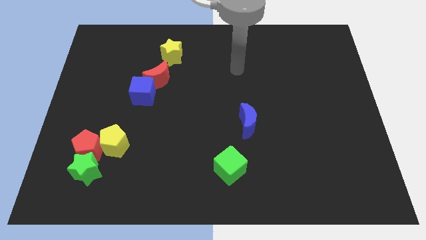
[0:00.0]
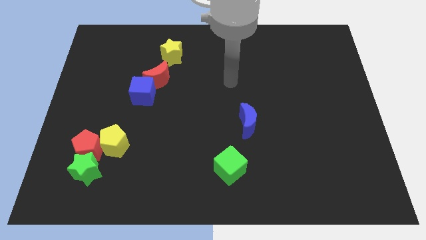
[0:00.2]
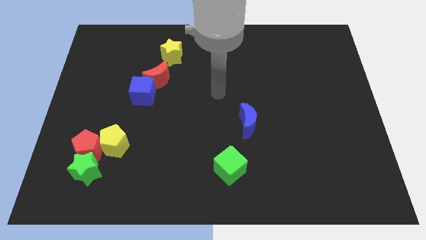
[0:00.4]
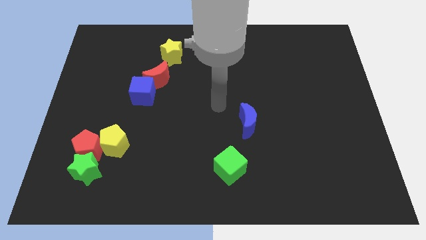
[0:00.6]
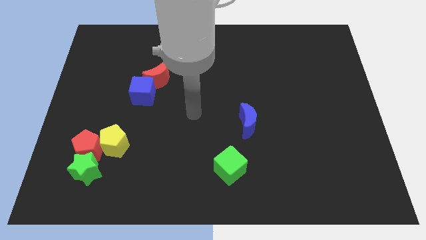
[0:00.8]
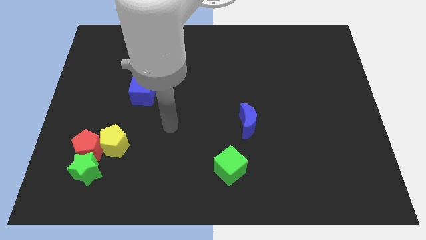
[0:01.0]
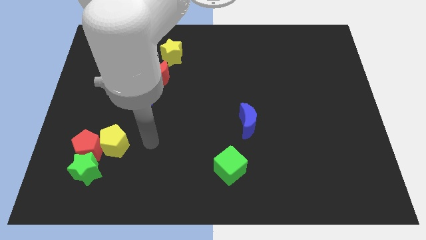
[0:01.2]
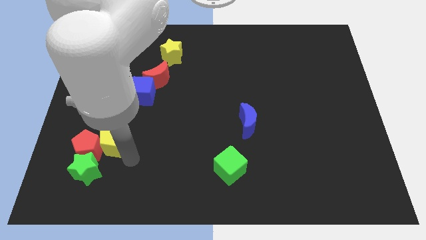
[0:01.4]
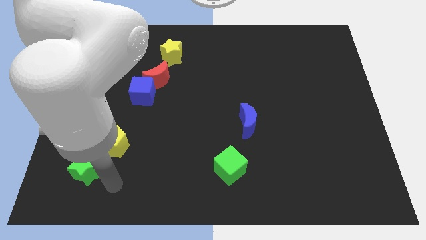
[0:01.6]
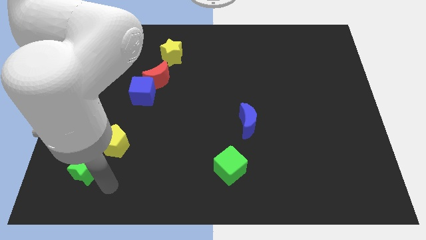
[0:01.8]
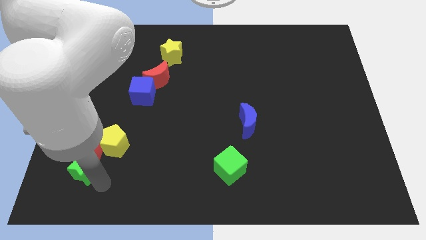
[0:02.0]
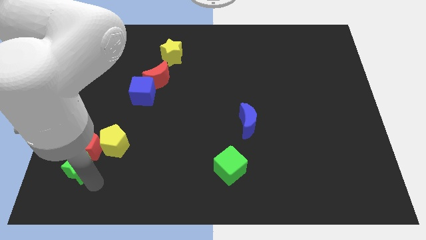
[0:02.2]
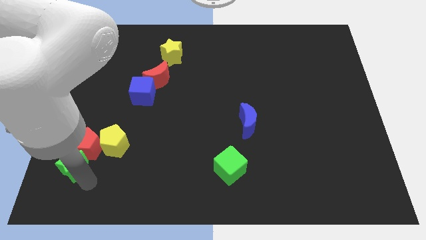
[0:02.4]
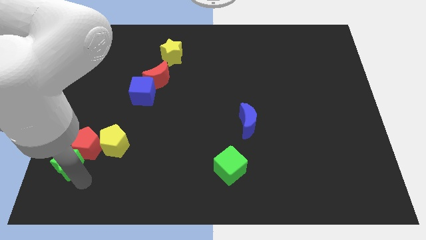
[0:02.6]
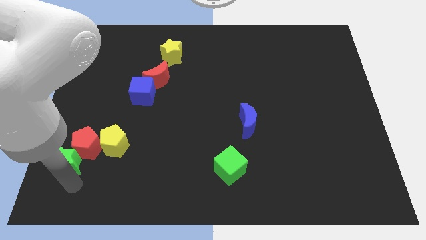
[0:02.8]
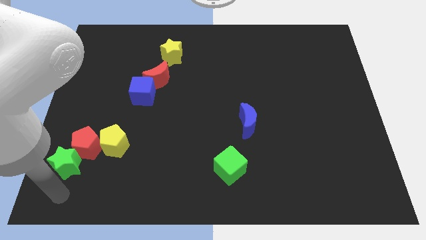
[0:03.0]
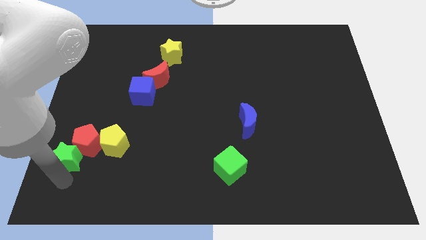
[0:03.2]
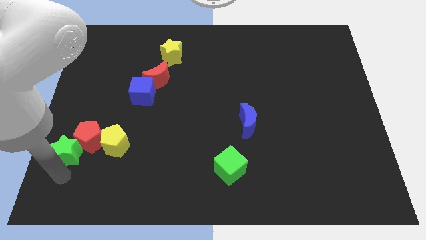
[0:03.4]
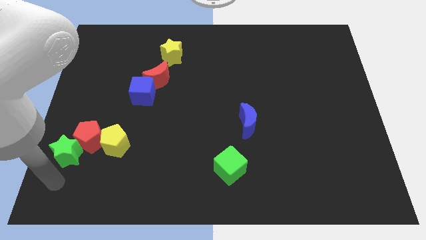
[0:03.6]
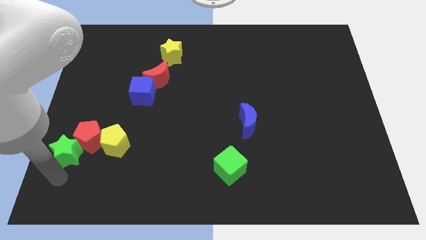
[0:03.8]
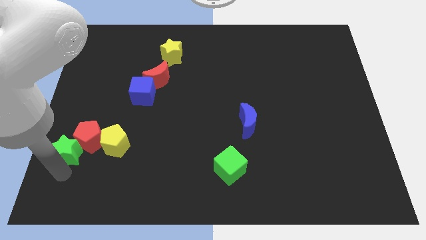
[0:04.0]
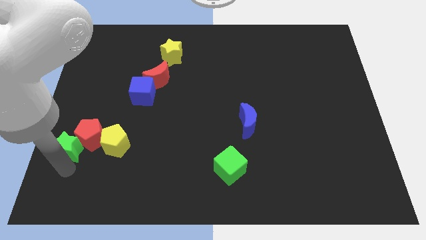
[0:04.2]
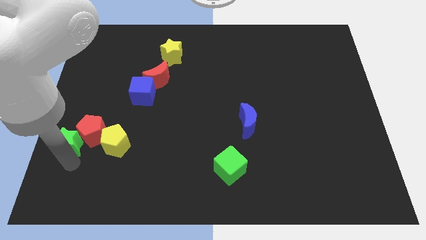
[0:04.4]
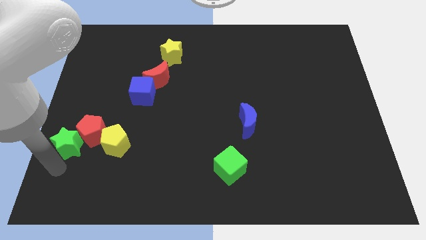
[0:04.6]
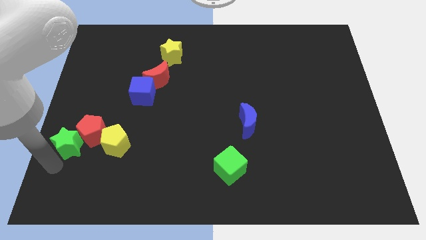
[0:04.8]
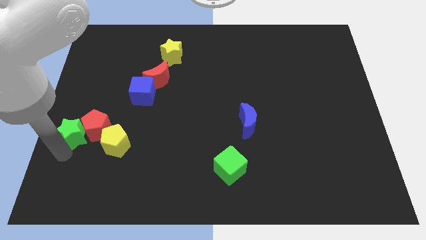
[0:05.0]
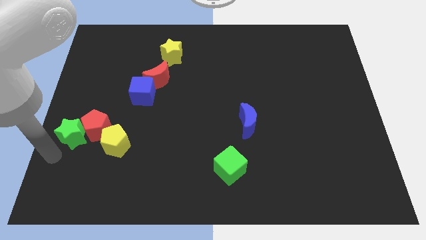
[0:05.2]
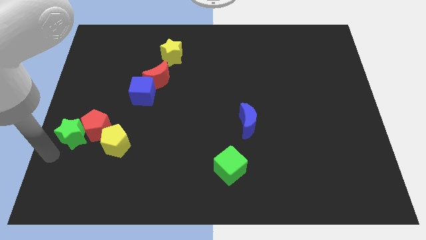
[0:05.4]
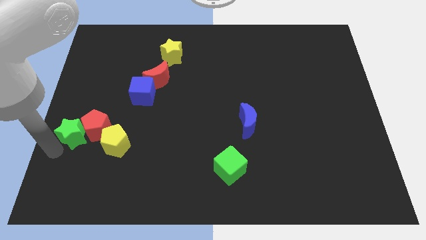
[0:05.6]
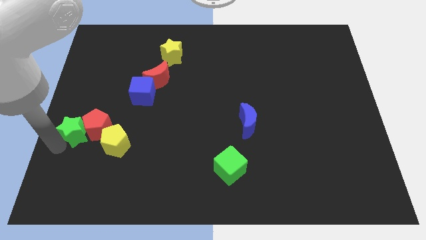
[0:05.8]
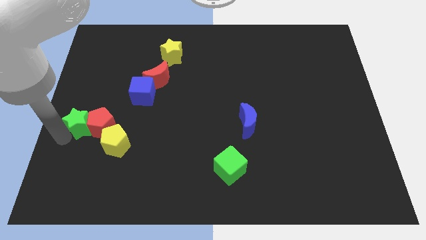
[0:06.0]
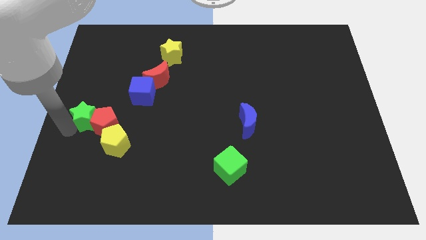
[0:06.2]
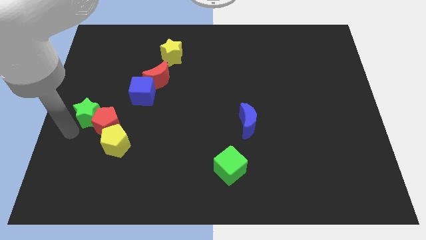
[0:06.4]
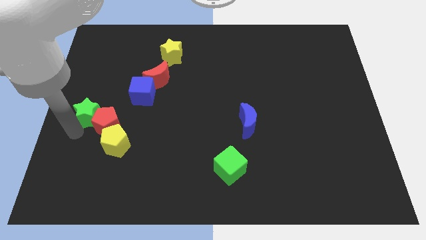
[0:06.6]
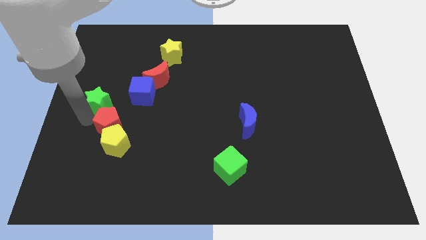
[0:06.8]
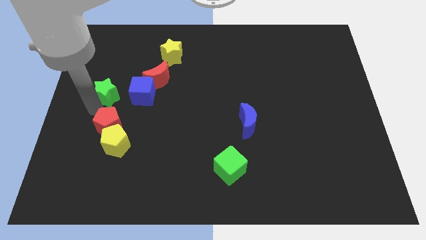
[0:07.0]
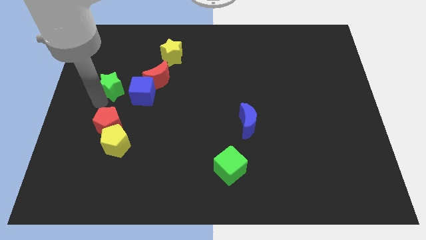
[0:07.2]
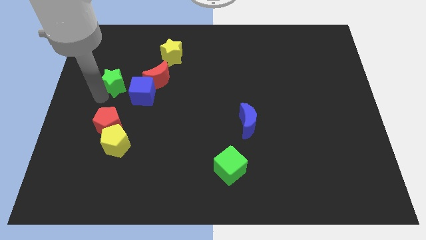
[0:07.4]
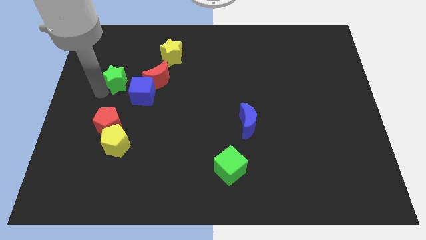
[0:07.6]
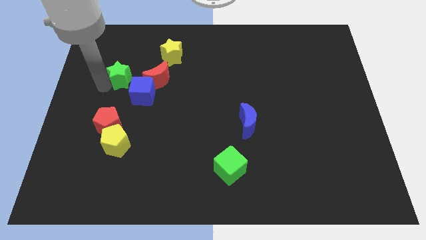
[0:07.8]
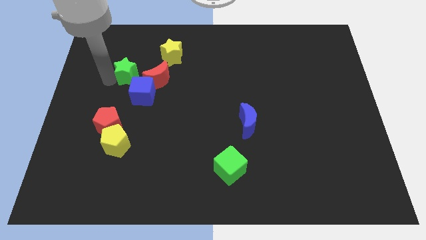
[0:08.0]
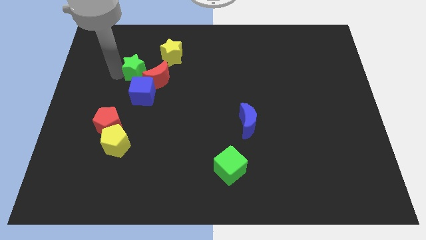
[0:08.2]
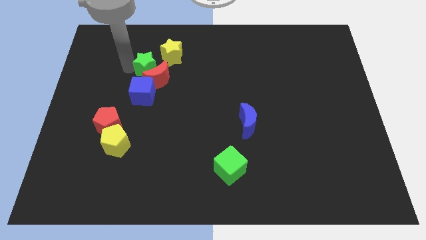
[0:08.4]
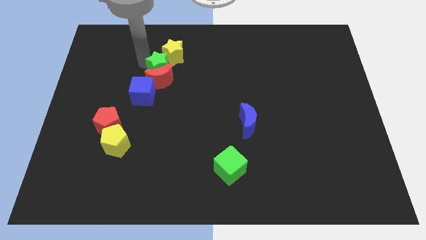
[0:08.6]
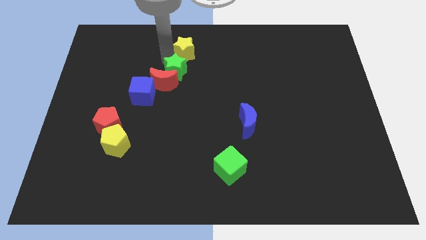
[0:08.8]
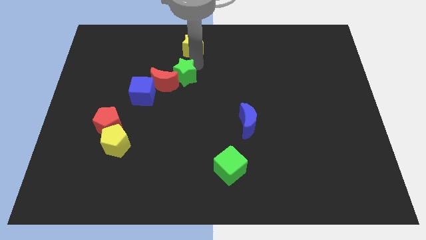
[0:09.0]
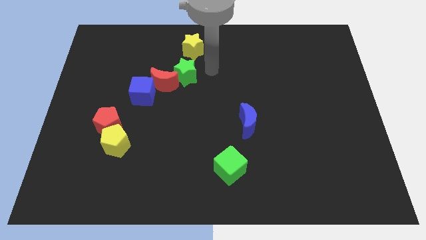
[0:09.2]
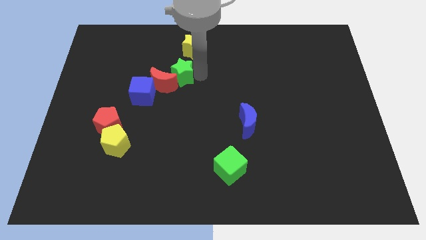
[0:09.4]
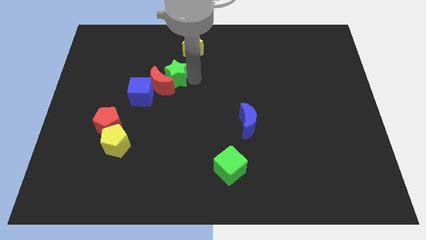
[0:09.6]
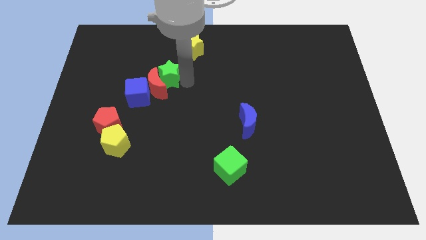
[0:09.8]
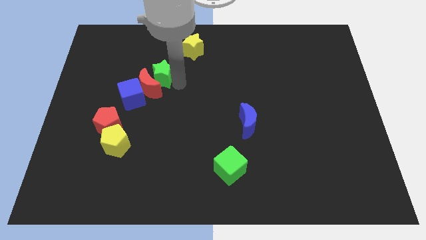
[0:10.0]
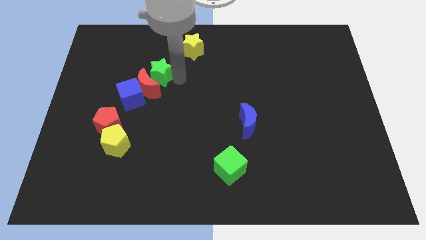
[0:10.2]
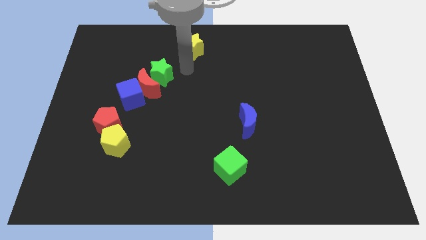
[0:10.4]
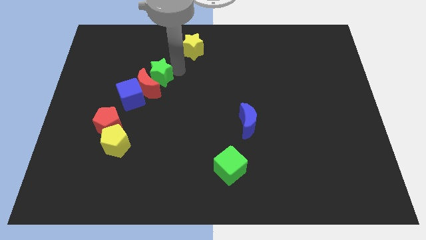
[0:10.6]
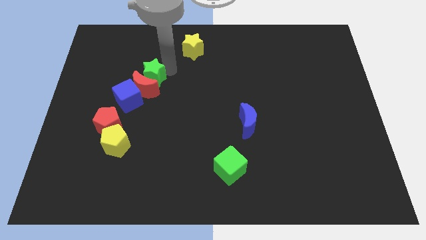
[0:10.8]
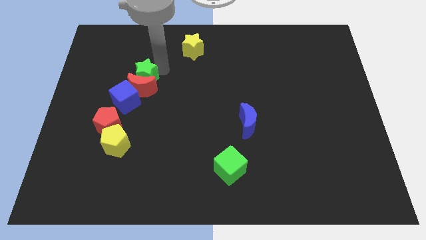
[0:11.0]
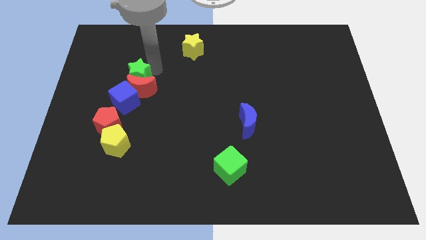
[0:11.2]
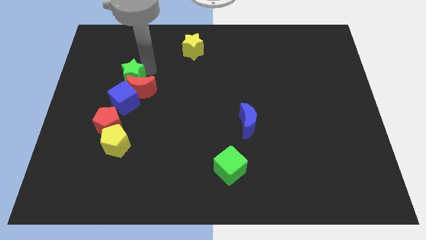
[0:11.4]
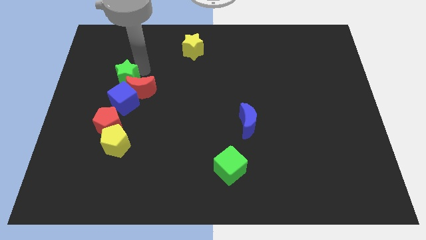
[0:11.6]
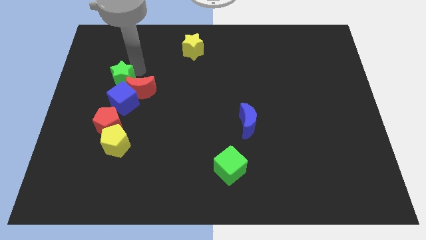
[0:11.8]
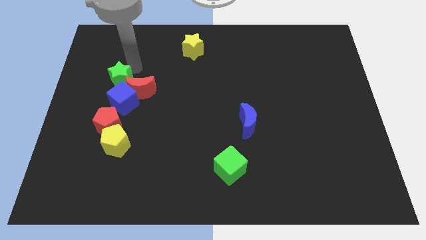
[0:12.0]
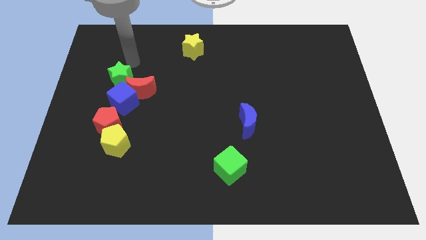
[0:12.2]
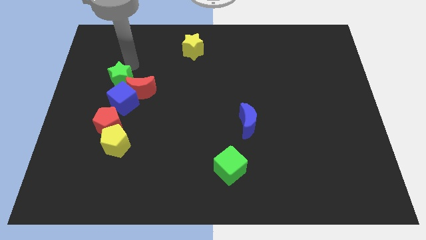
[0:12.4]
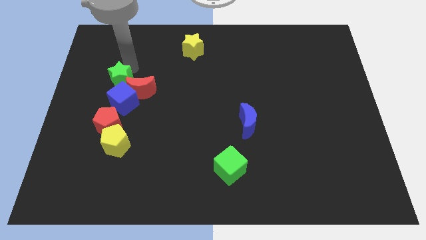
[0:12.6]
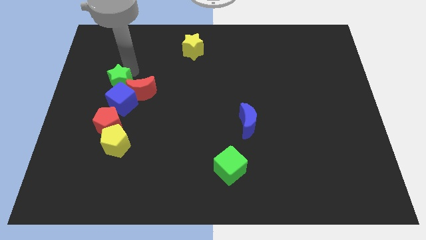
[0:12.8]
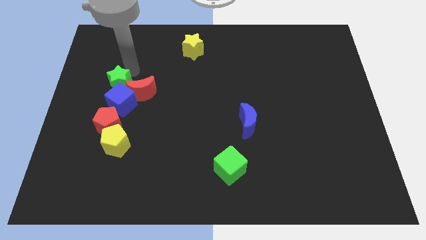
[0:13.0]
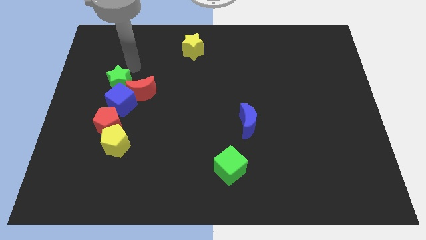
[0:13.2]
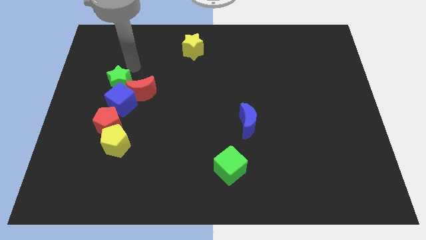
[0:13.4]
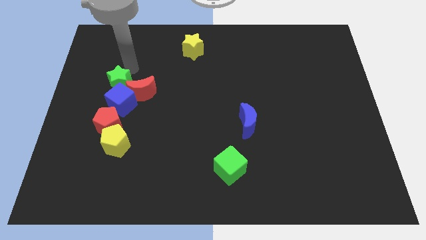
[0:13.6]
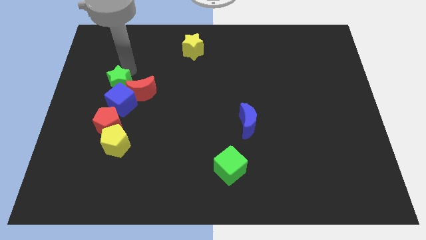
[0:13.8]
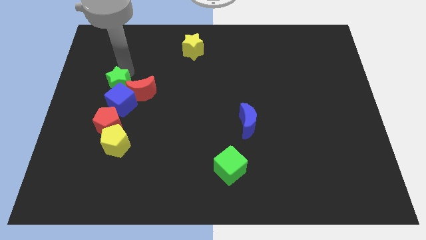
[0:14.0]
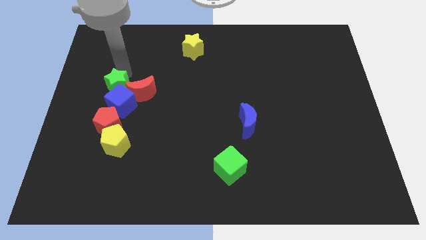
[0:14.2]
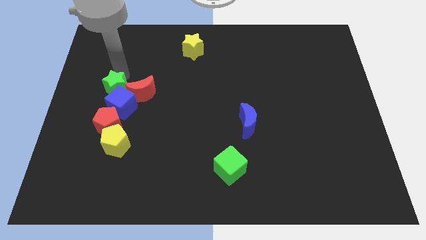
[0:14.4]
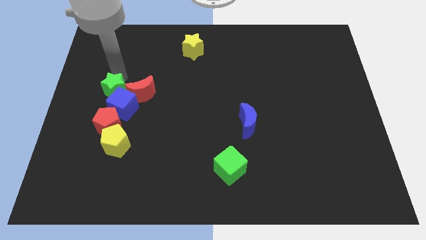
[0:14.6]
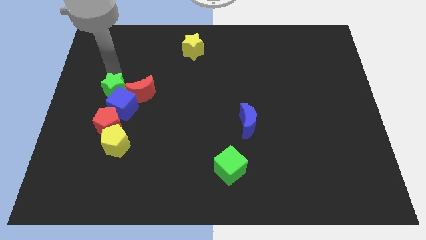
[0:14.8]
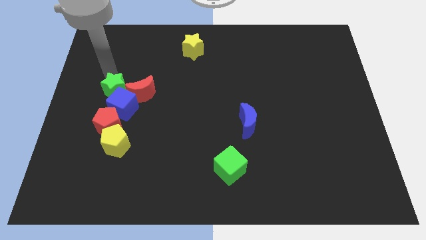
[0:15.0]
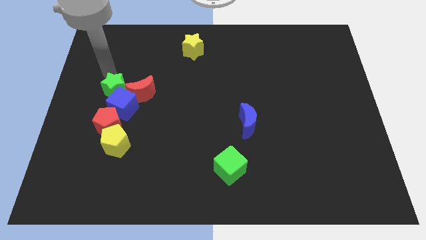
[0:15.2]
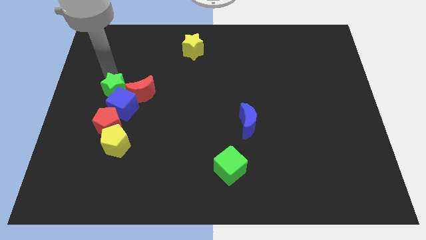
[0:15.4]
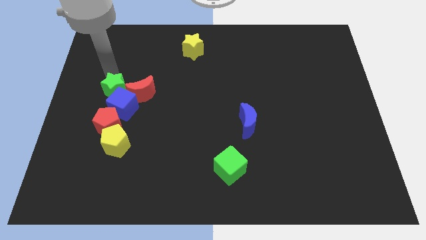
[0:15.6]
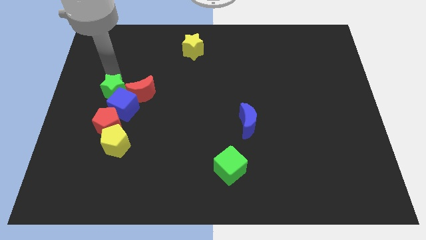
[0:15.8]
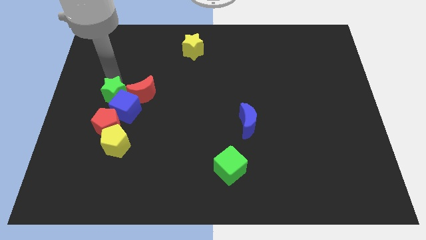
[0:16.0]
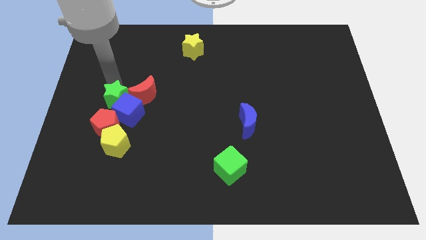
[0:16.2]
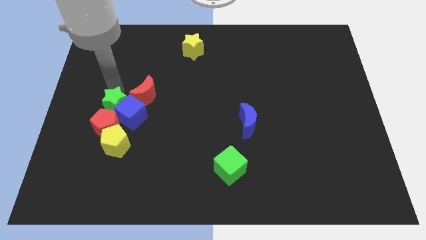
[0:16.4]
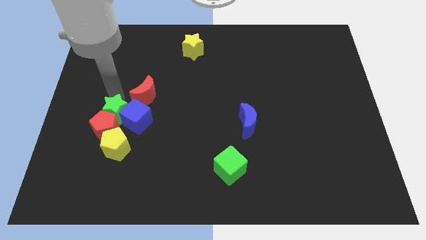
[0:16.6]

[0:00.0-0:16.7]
slide the green star to the top side of the red pentagon
